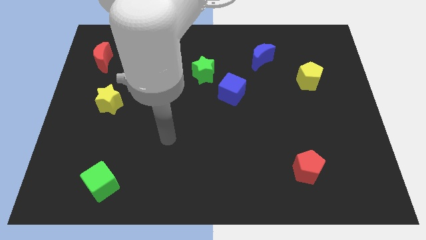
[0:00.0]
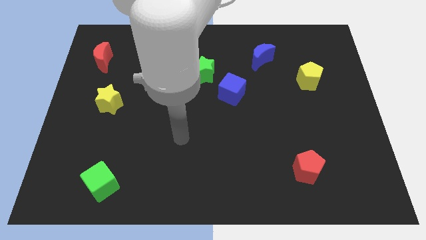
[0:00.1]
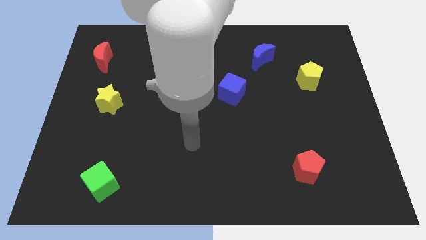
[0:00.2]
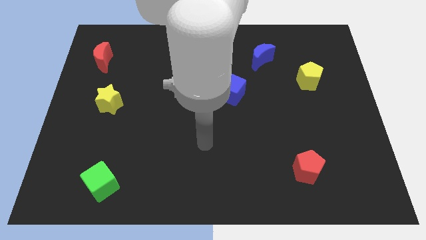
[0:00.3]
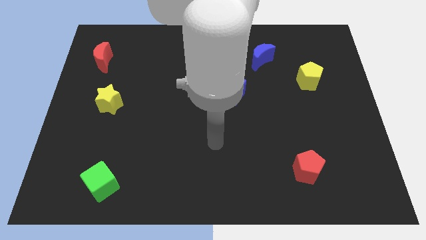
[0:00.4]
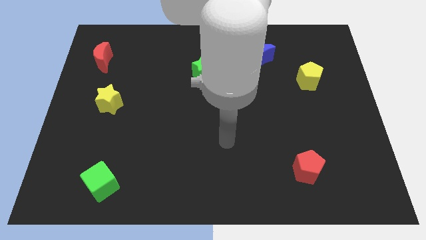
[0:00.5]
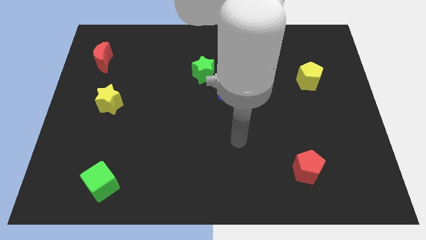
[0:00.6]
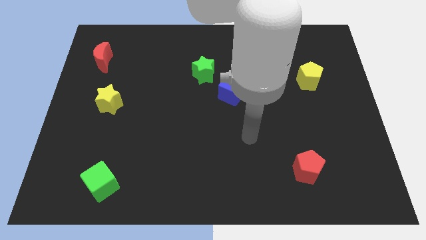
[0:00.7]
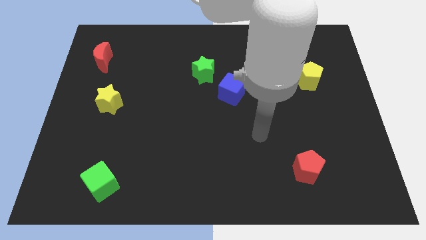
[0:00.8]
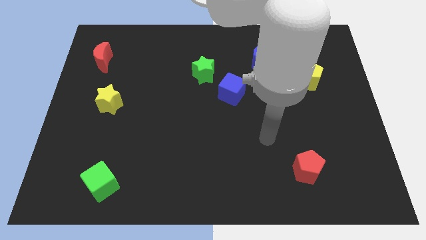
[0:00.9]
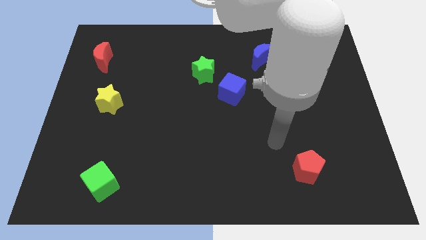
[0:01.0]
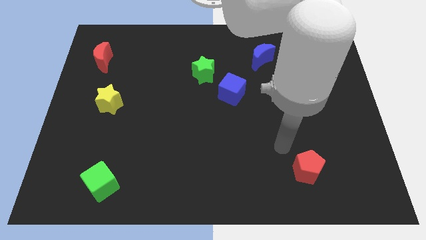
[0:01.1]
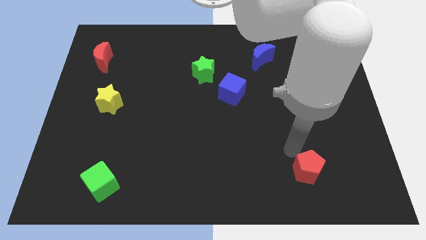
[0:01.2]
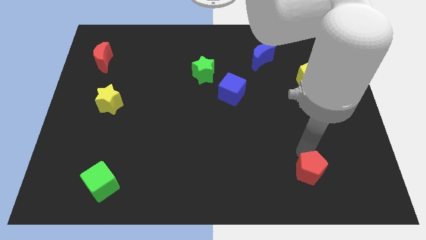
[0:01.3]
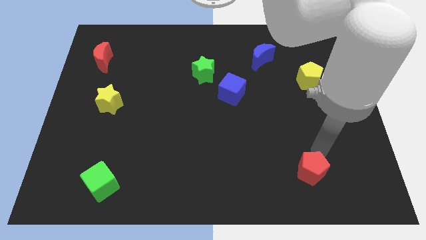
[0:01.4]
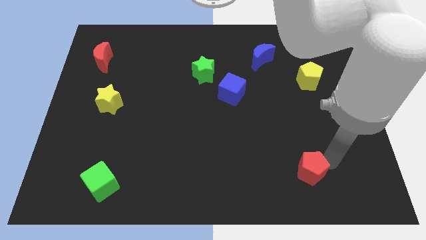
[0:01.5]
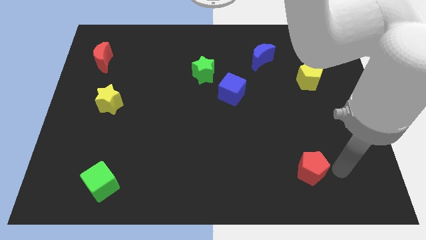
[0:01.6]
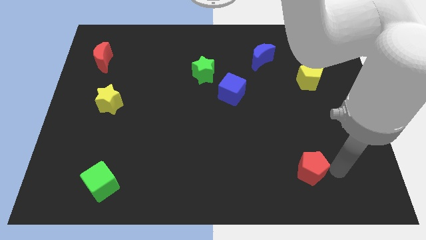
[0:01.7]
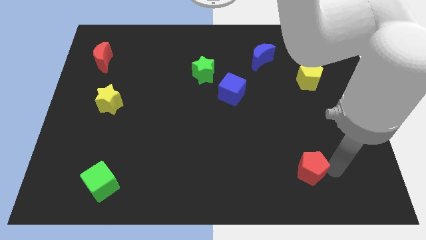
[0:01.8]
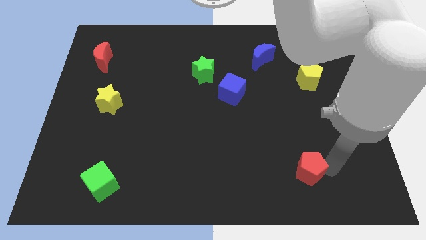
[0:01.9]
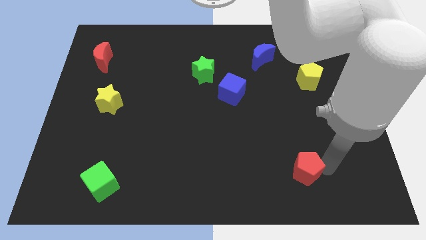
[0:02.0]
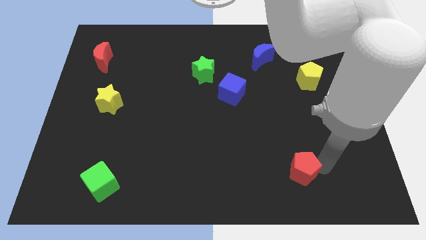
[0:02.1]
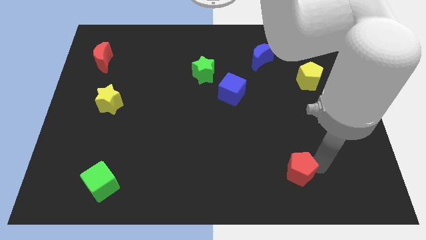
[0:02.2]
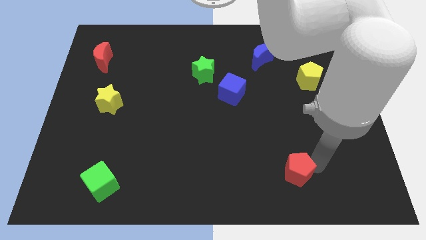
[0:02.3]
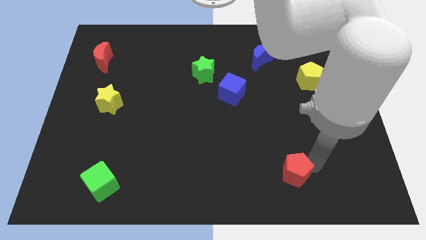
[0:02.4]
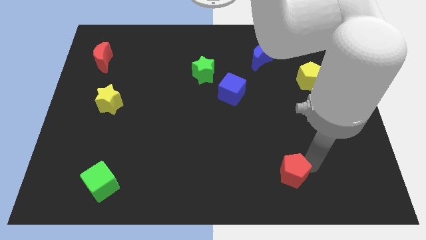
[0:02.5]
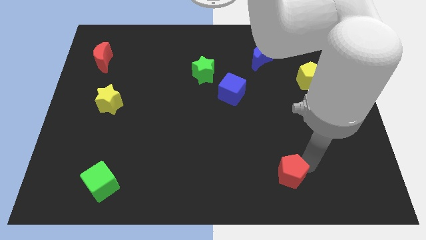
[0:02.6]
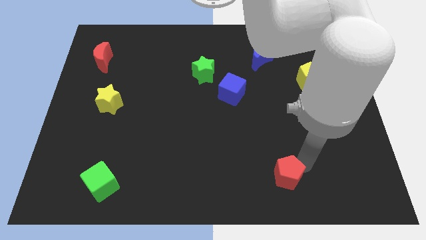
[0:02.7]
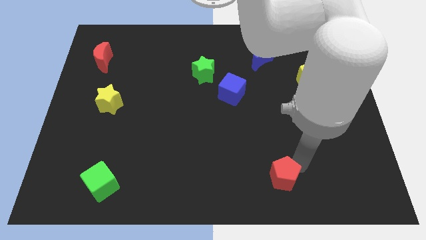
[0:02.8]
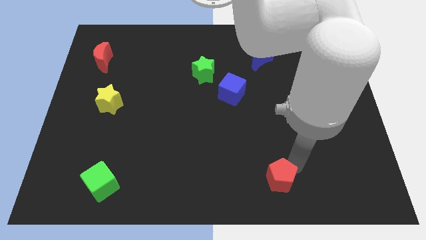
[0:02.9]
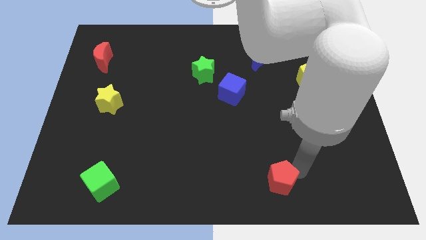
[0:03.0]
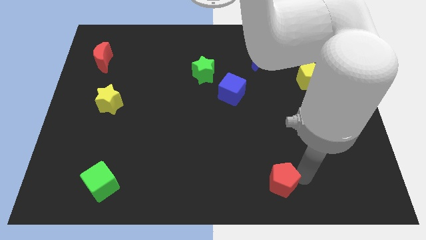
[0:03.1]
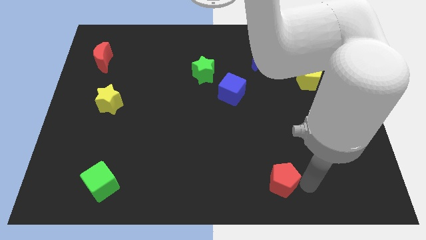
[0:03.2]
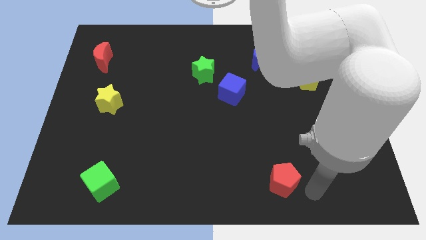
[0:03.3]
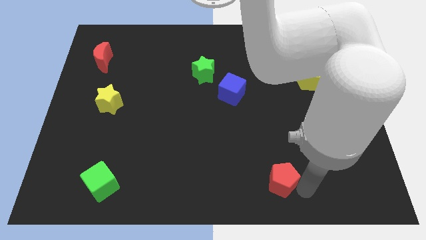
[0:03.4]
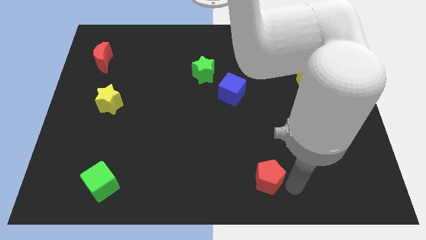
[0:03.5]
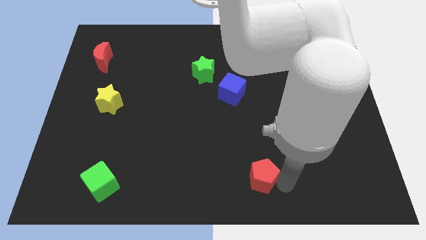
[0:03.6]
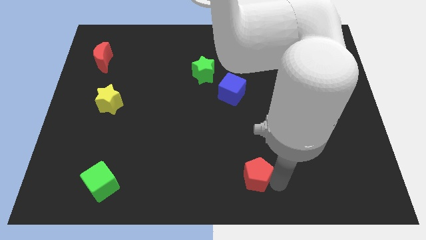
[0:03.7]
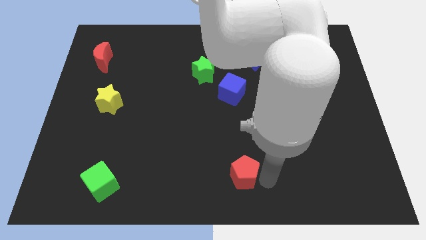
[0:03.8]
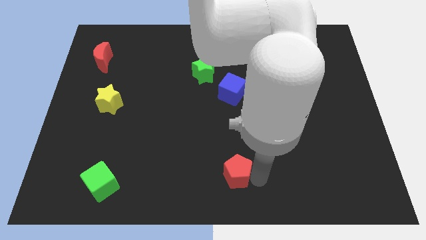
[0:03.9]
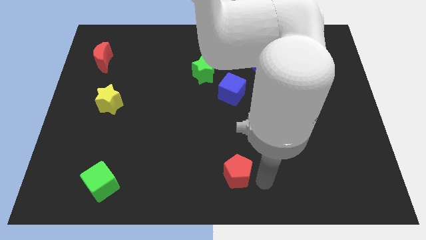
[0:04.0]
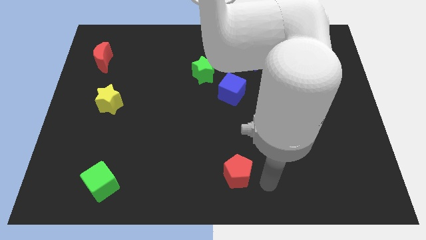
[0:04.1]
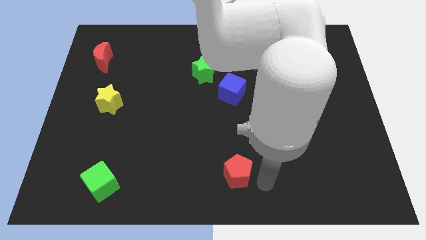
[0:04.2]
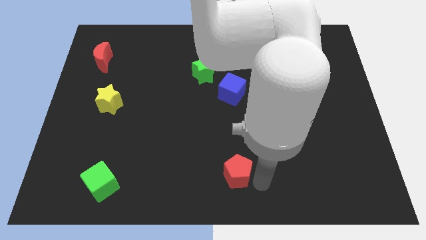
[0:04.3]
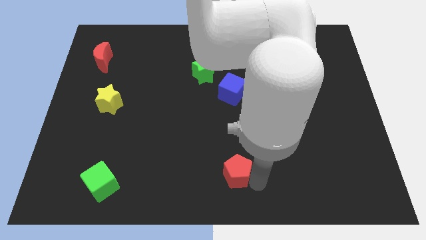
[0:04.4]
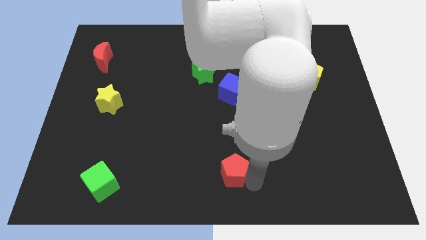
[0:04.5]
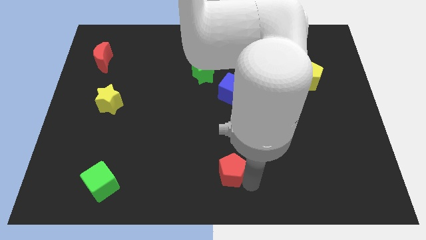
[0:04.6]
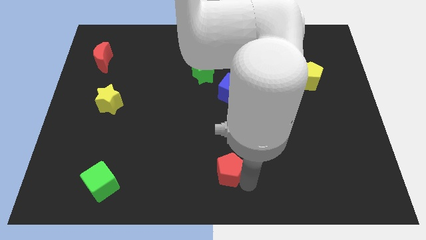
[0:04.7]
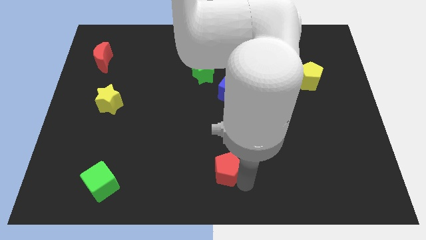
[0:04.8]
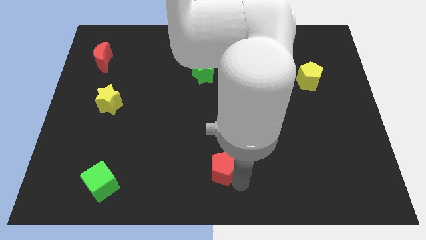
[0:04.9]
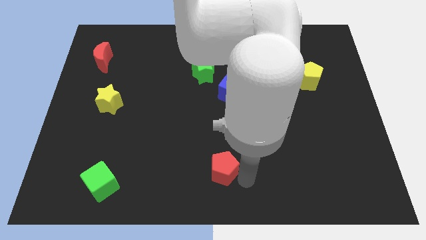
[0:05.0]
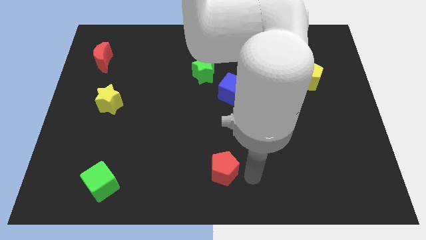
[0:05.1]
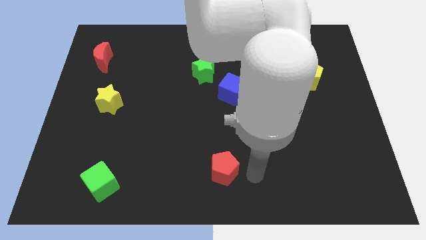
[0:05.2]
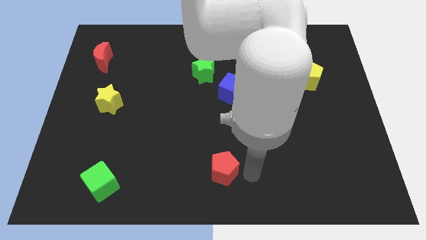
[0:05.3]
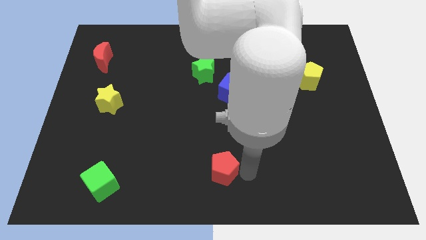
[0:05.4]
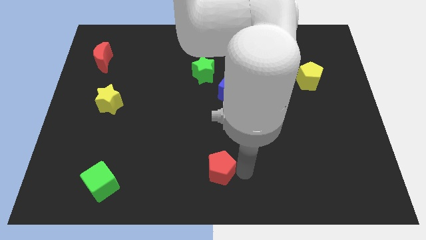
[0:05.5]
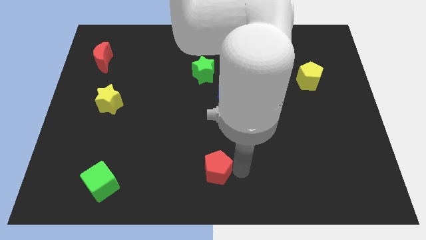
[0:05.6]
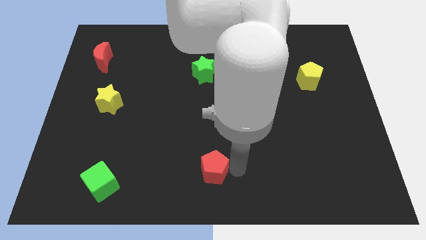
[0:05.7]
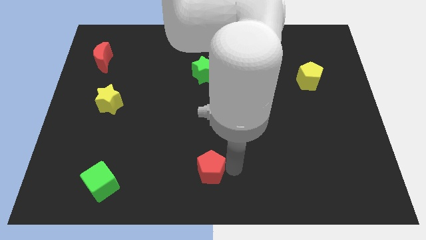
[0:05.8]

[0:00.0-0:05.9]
push the red pentagon left

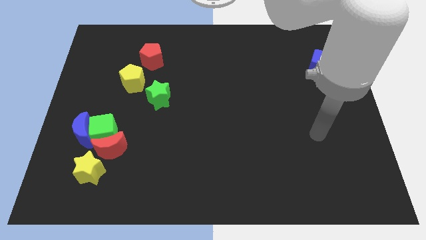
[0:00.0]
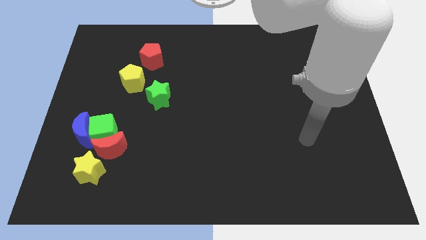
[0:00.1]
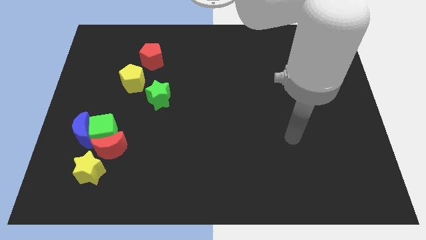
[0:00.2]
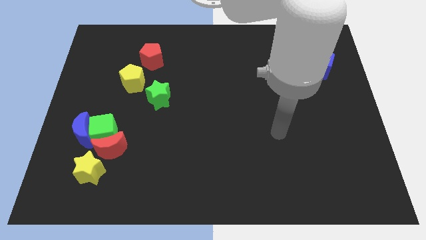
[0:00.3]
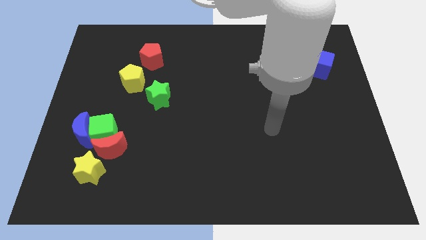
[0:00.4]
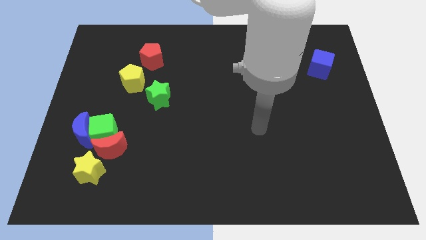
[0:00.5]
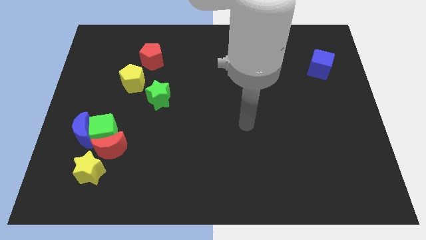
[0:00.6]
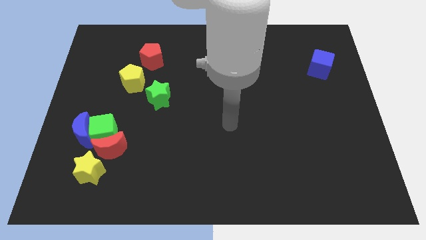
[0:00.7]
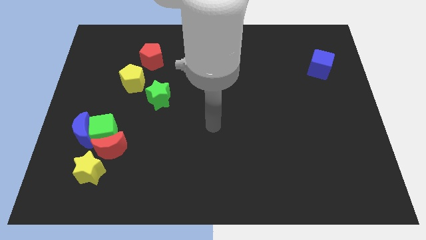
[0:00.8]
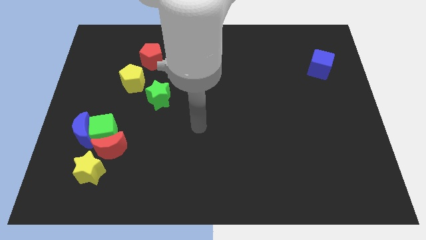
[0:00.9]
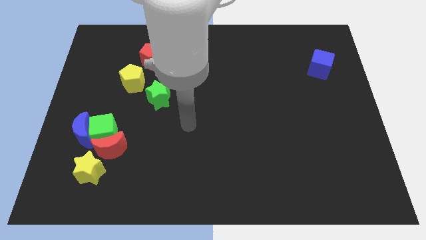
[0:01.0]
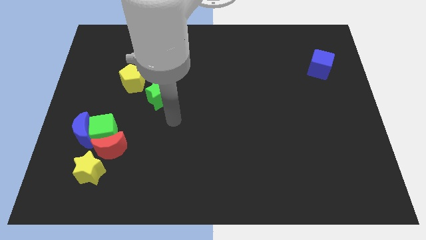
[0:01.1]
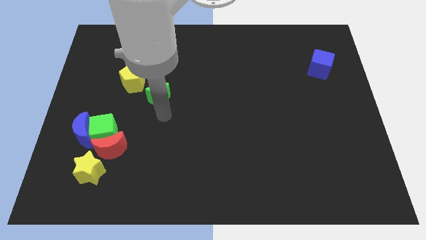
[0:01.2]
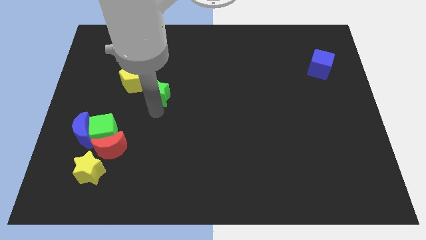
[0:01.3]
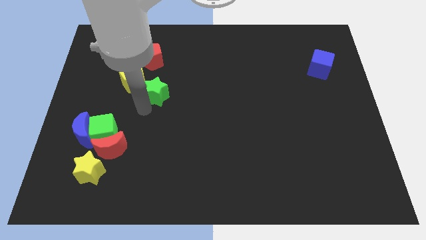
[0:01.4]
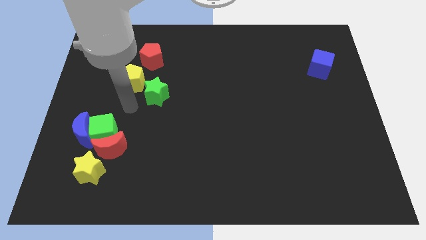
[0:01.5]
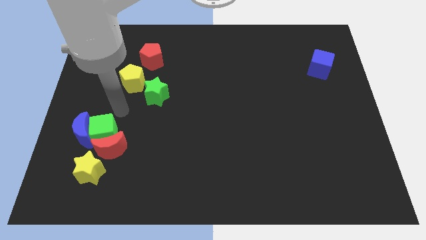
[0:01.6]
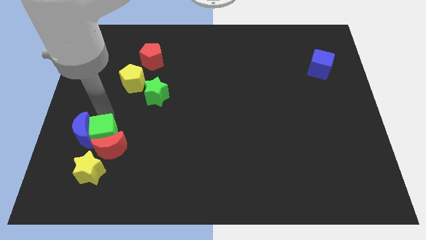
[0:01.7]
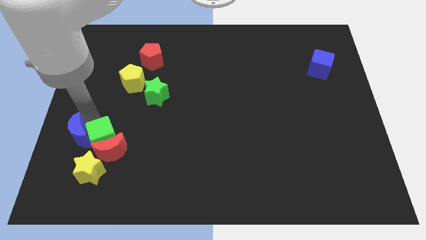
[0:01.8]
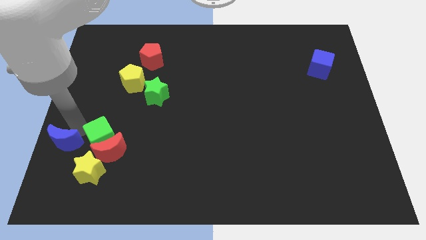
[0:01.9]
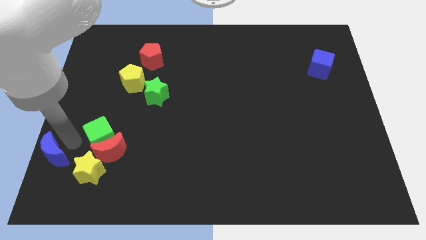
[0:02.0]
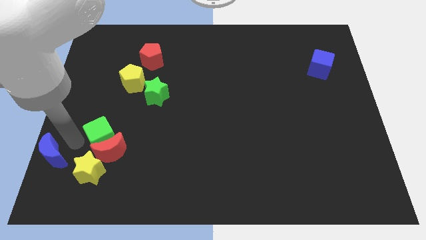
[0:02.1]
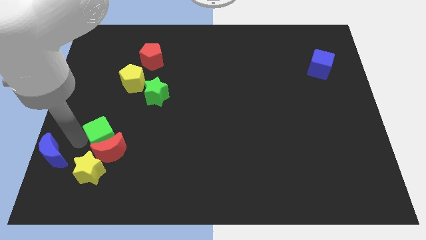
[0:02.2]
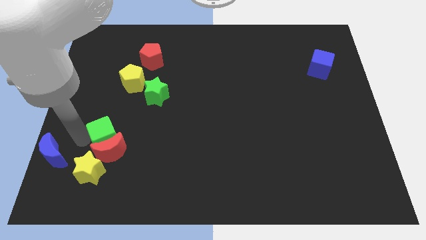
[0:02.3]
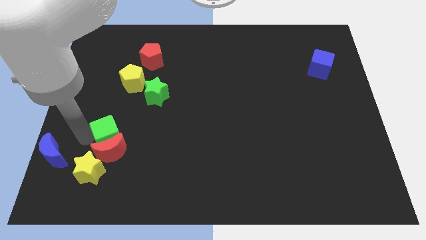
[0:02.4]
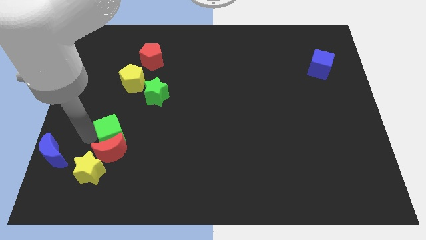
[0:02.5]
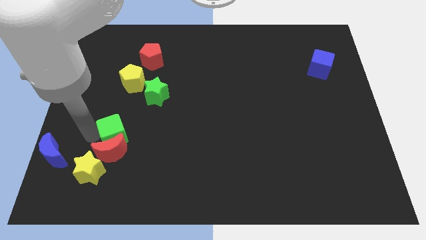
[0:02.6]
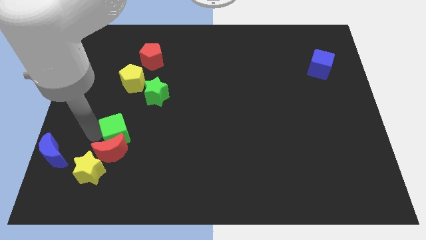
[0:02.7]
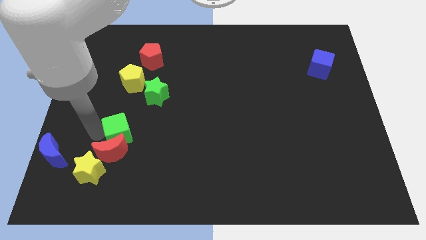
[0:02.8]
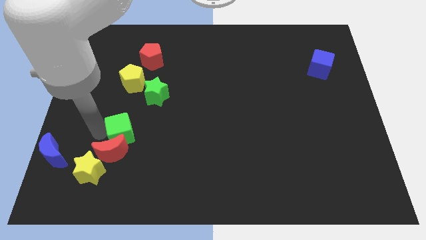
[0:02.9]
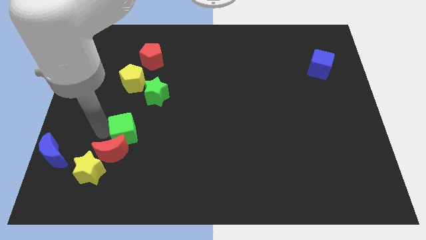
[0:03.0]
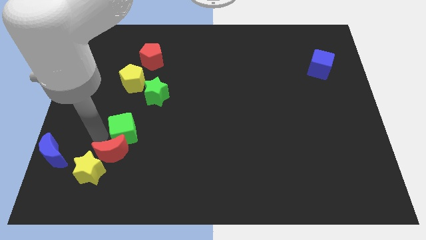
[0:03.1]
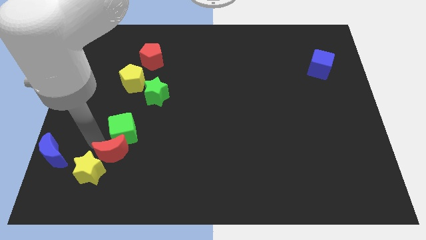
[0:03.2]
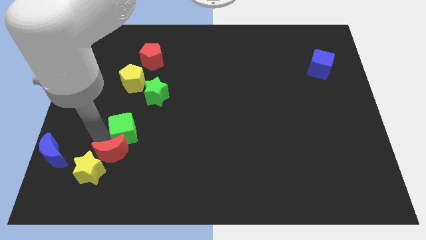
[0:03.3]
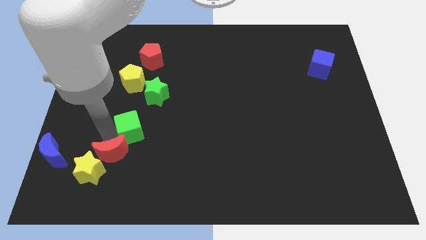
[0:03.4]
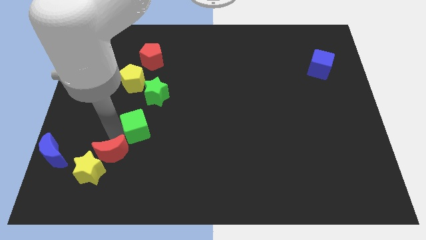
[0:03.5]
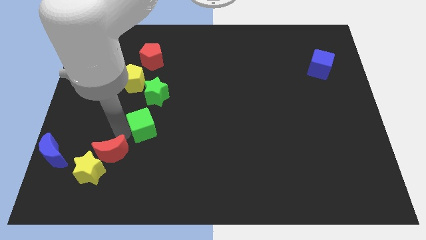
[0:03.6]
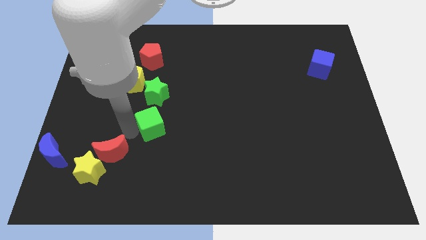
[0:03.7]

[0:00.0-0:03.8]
move the green cube a little bit diagonally up and right
